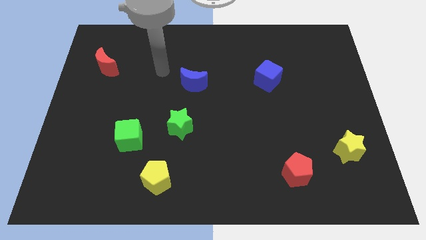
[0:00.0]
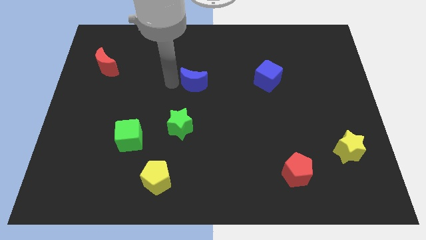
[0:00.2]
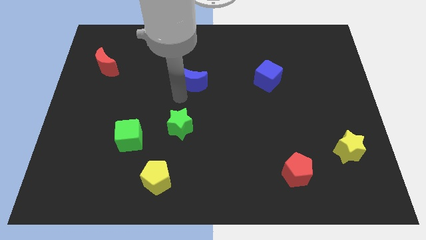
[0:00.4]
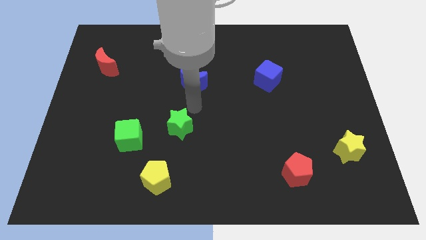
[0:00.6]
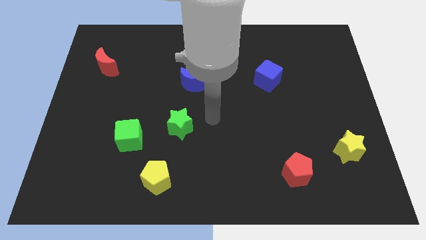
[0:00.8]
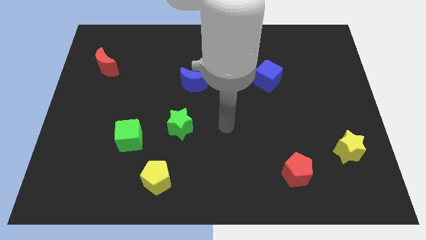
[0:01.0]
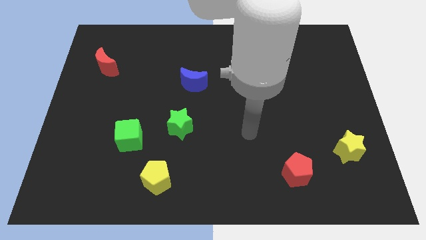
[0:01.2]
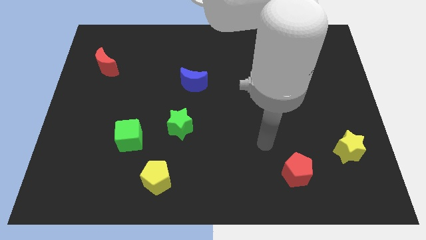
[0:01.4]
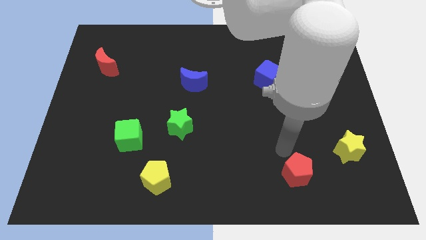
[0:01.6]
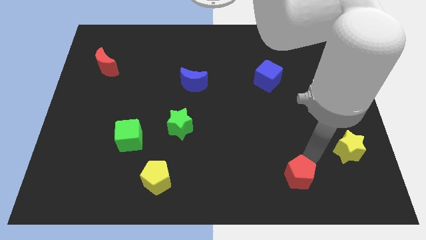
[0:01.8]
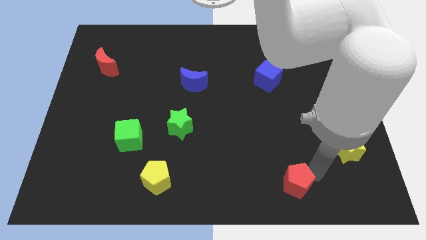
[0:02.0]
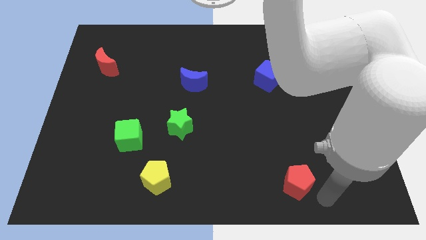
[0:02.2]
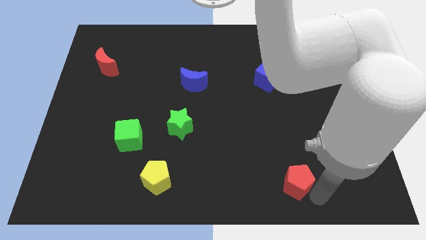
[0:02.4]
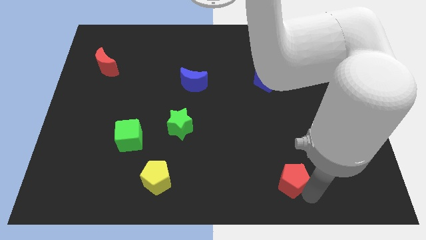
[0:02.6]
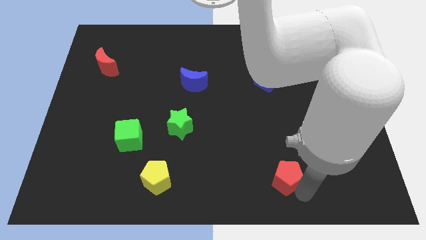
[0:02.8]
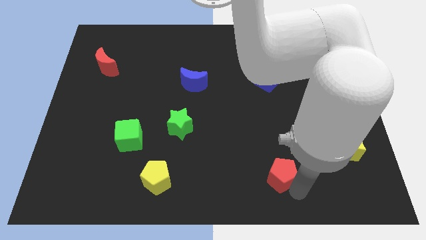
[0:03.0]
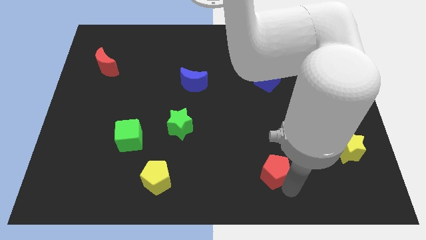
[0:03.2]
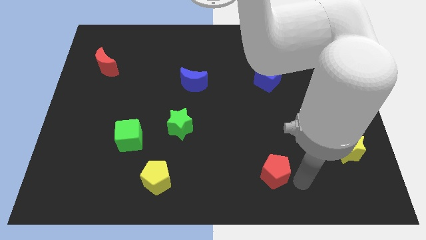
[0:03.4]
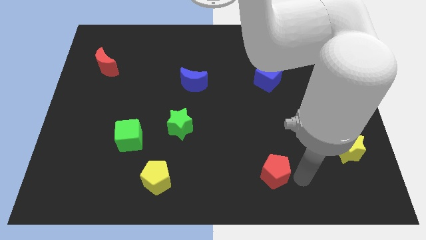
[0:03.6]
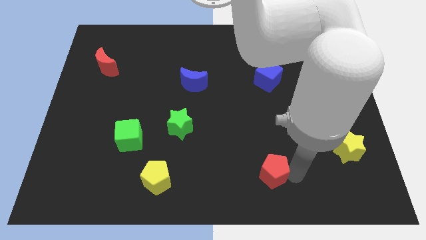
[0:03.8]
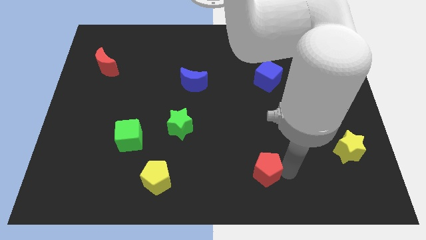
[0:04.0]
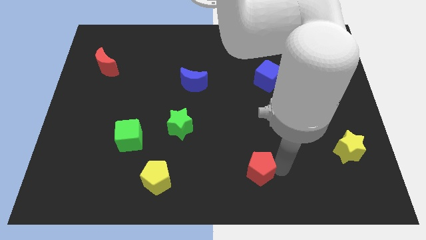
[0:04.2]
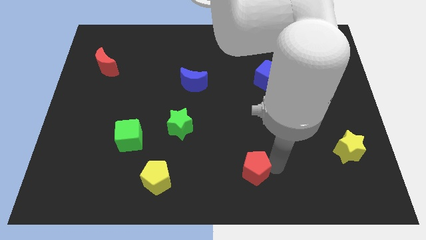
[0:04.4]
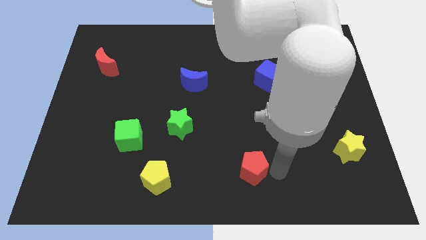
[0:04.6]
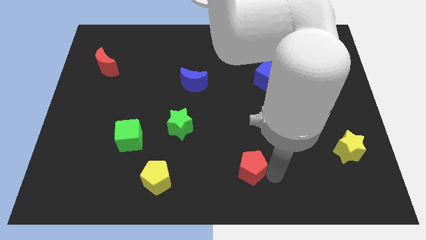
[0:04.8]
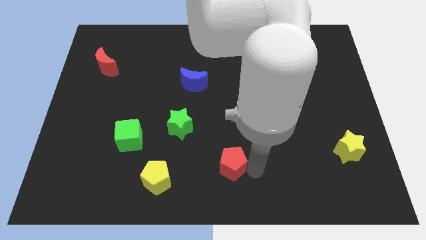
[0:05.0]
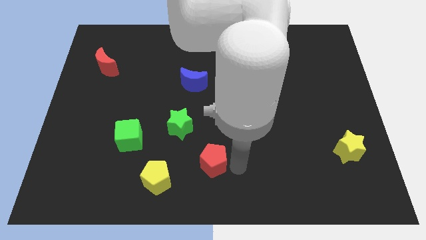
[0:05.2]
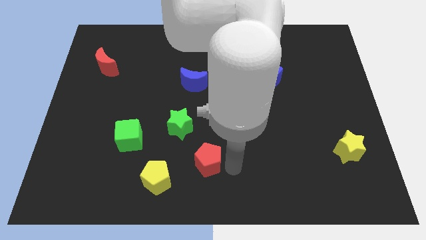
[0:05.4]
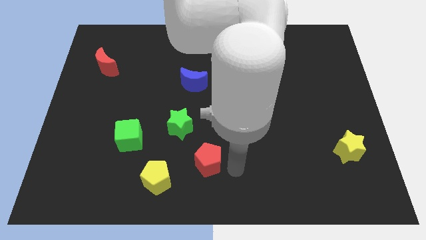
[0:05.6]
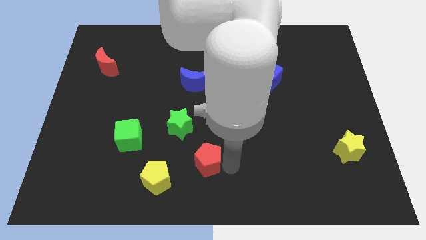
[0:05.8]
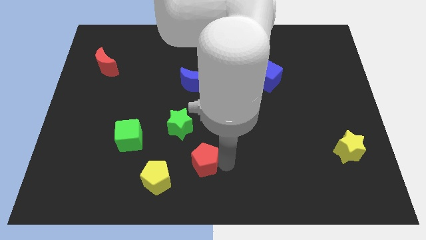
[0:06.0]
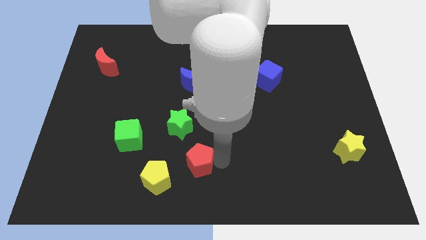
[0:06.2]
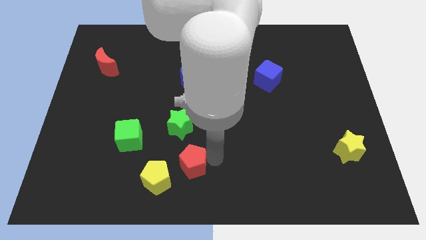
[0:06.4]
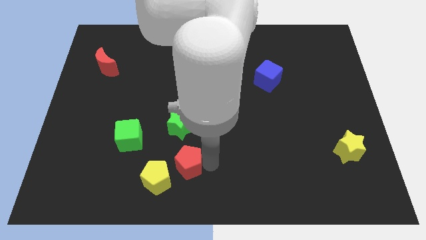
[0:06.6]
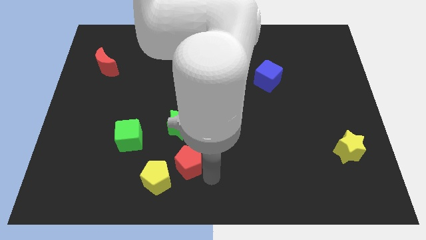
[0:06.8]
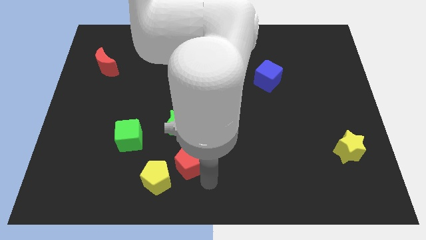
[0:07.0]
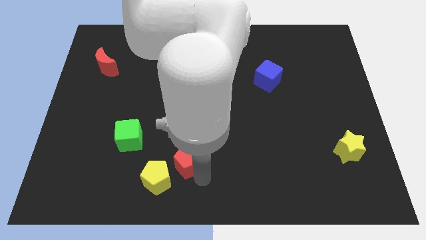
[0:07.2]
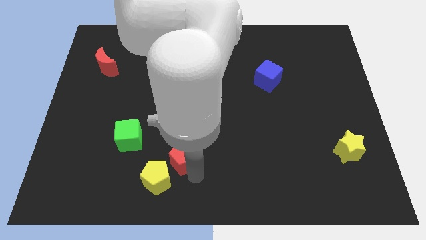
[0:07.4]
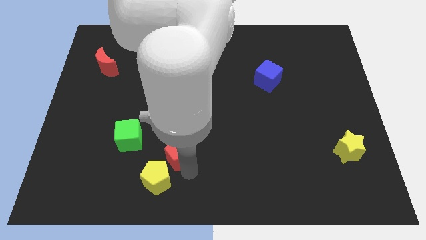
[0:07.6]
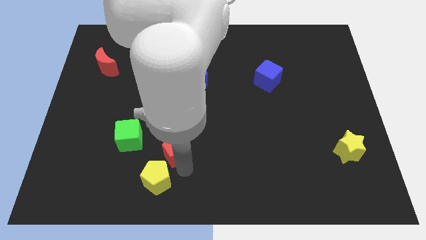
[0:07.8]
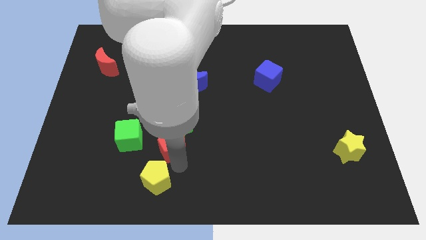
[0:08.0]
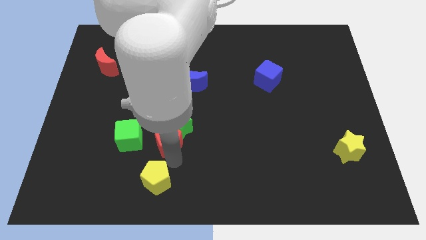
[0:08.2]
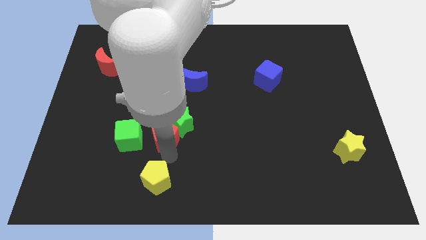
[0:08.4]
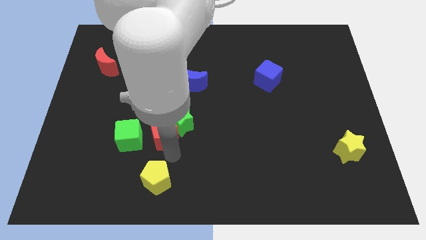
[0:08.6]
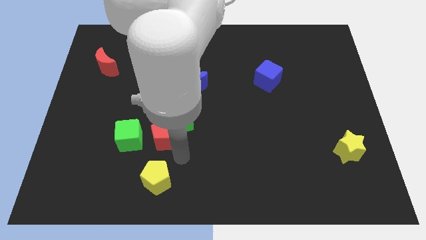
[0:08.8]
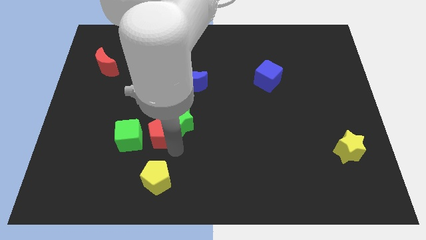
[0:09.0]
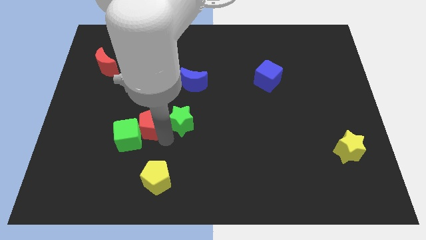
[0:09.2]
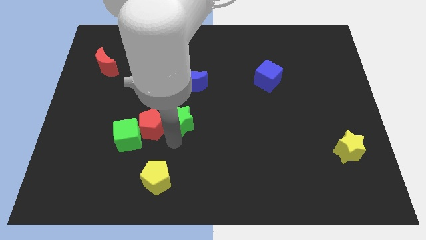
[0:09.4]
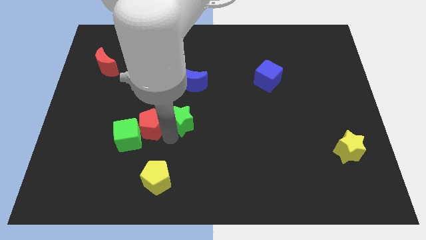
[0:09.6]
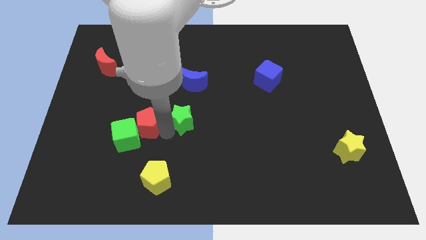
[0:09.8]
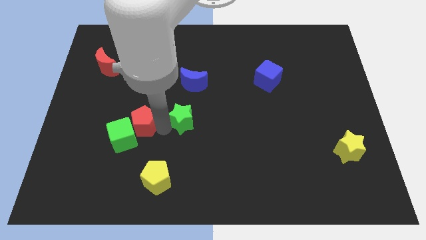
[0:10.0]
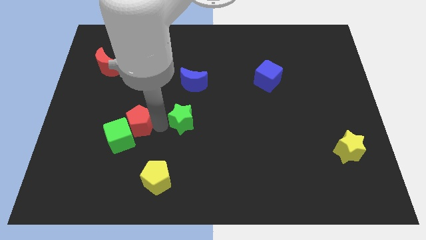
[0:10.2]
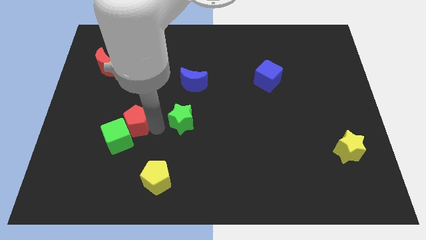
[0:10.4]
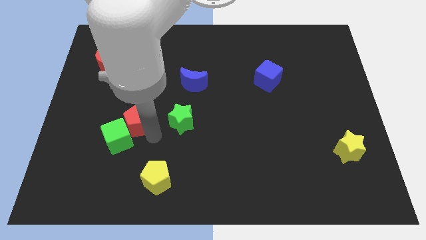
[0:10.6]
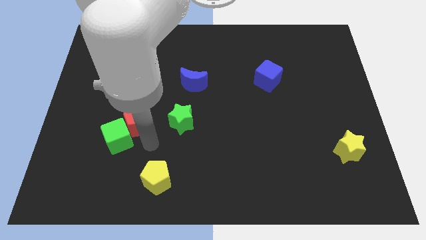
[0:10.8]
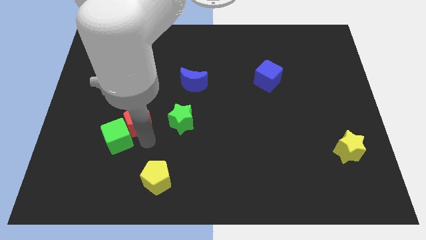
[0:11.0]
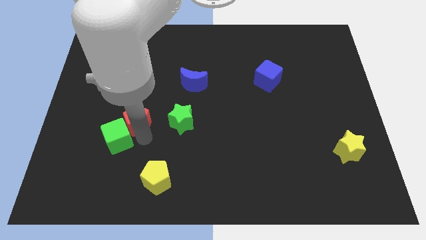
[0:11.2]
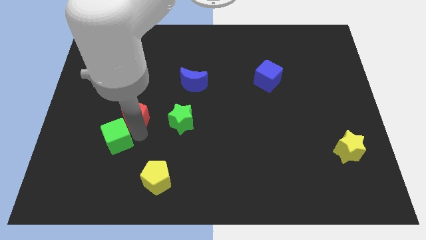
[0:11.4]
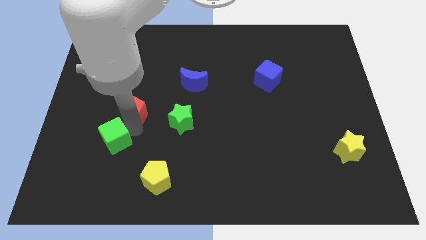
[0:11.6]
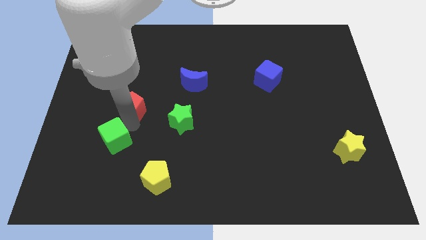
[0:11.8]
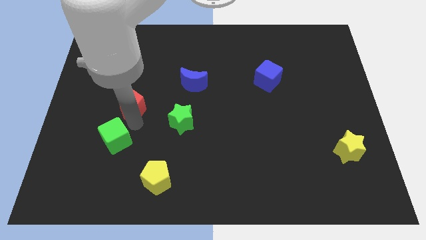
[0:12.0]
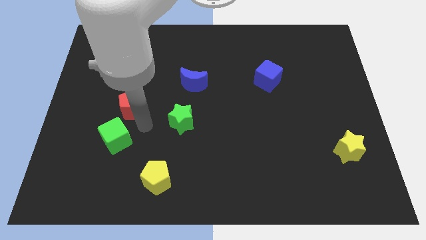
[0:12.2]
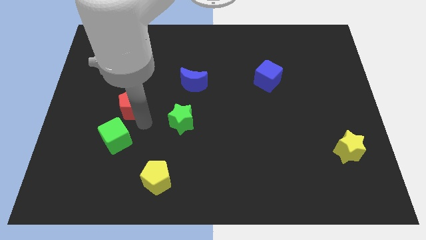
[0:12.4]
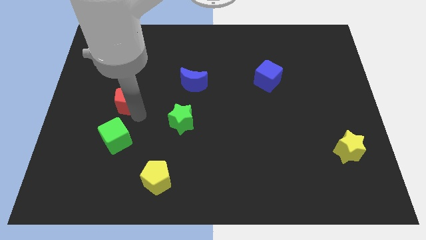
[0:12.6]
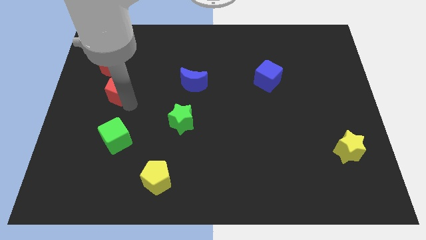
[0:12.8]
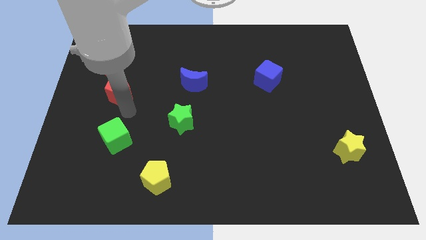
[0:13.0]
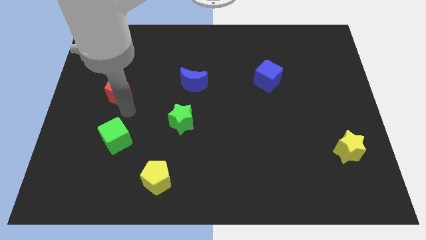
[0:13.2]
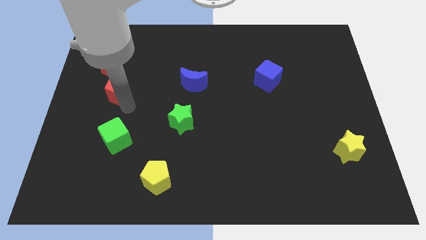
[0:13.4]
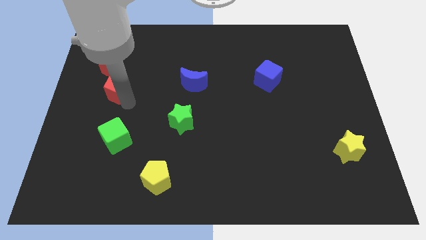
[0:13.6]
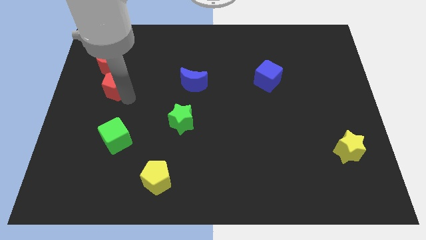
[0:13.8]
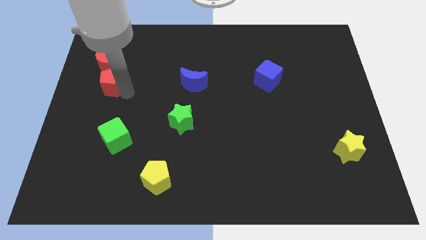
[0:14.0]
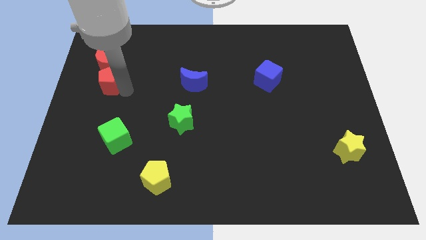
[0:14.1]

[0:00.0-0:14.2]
put the red pentagon to the red moon
